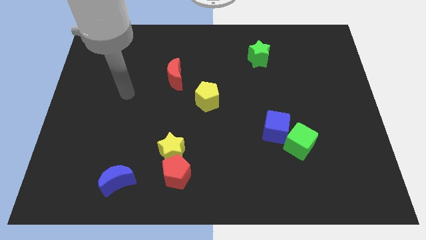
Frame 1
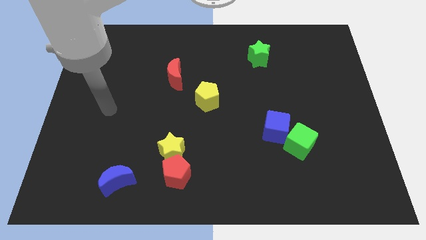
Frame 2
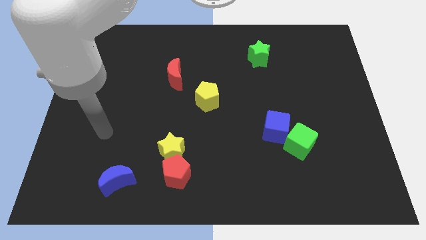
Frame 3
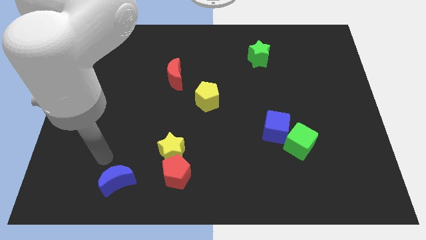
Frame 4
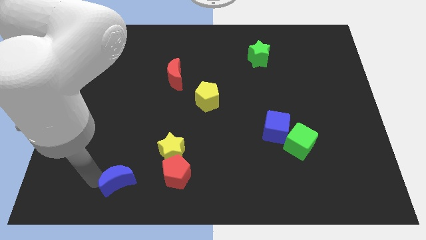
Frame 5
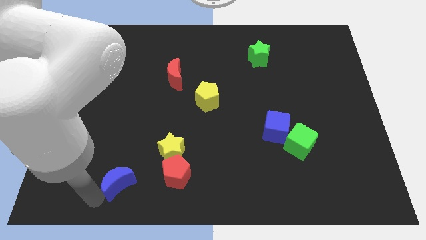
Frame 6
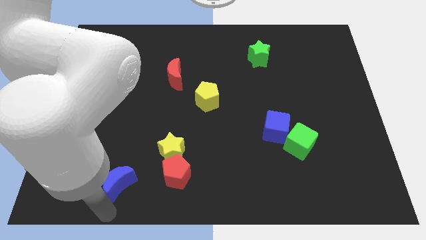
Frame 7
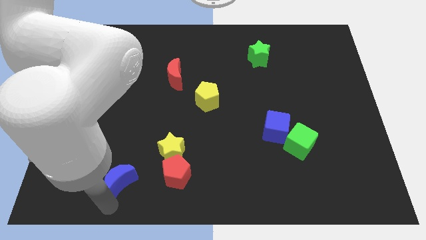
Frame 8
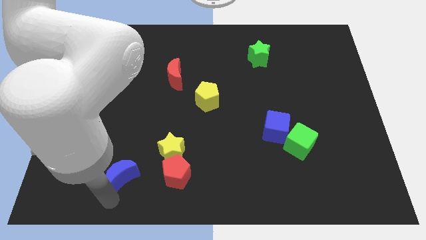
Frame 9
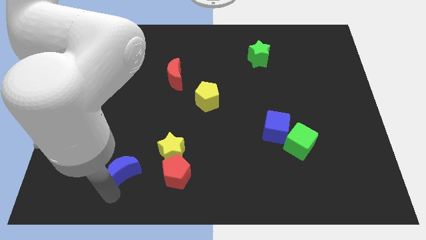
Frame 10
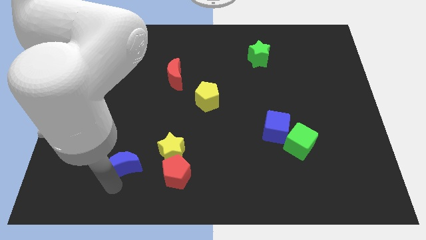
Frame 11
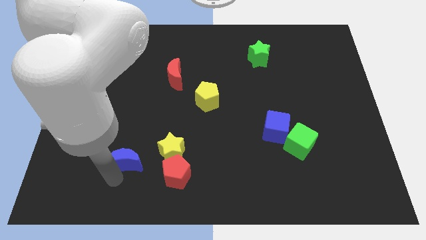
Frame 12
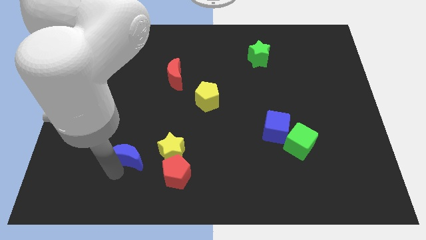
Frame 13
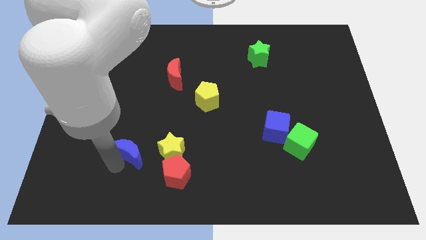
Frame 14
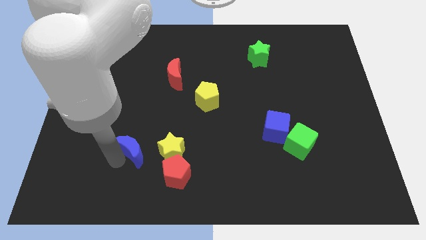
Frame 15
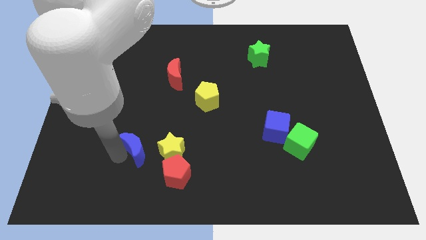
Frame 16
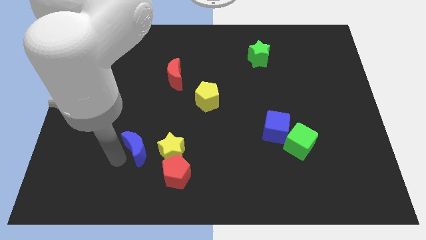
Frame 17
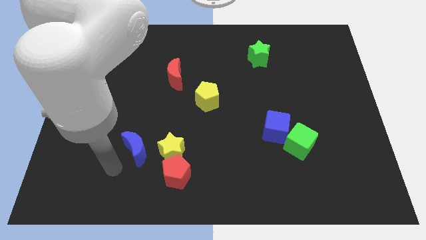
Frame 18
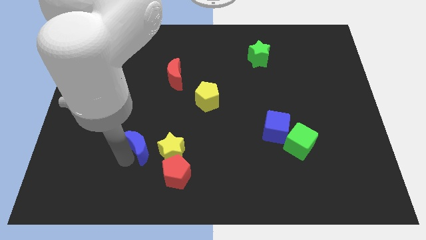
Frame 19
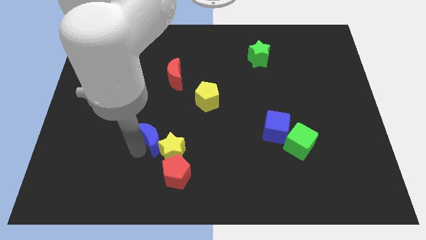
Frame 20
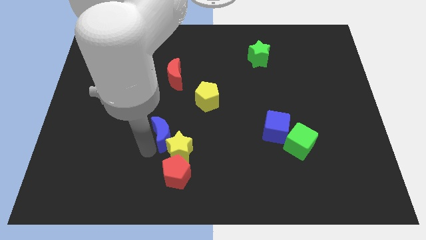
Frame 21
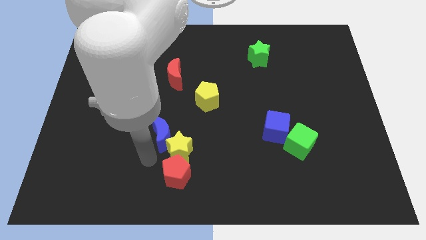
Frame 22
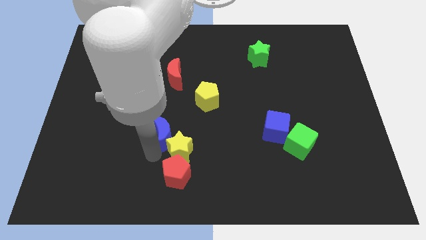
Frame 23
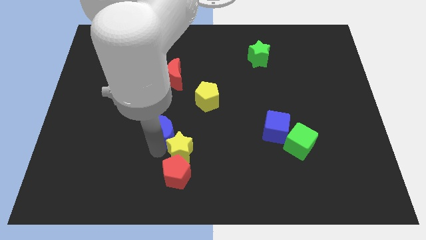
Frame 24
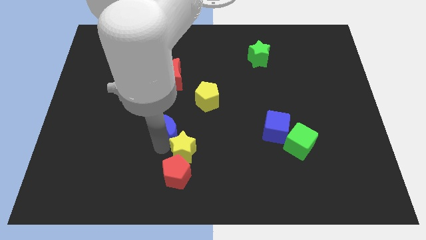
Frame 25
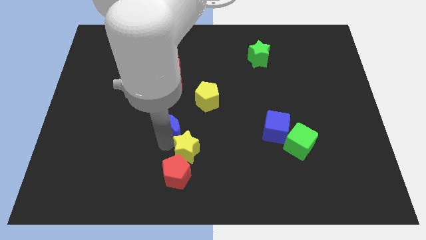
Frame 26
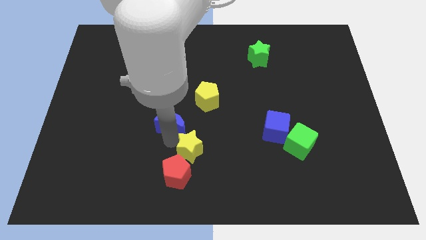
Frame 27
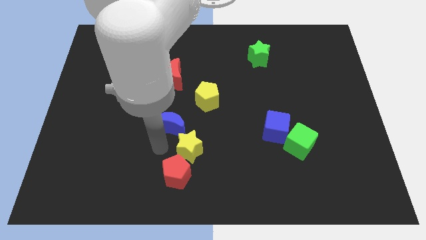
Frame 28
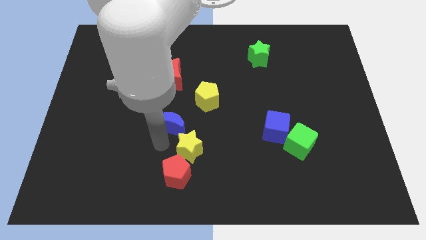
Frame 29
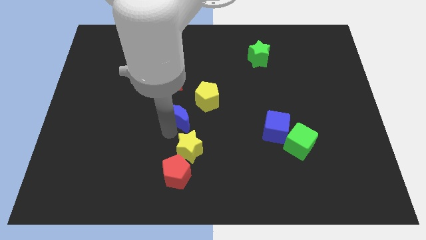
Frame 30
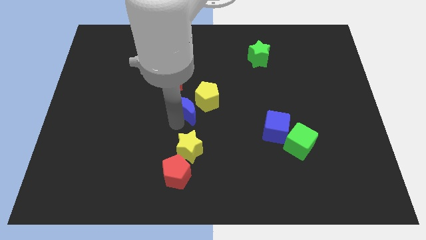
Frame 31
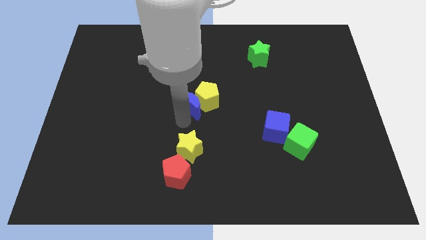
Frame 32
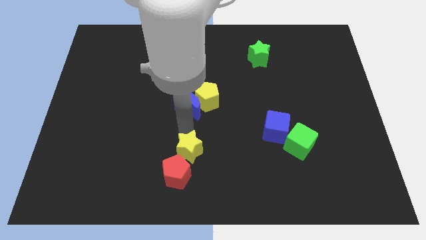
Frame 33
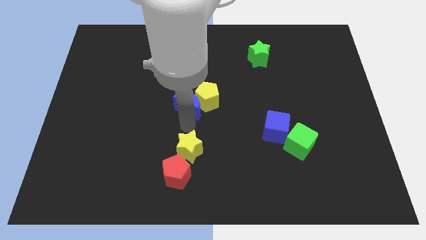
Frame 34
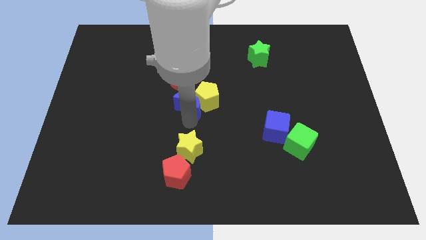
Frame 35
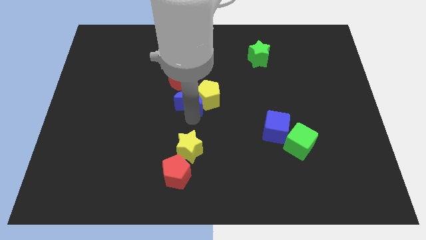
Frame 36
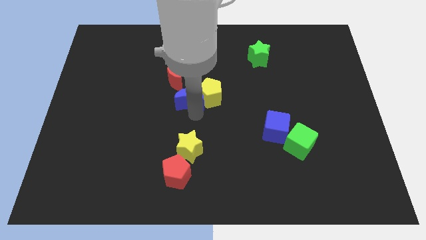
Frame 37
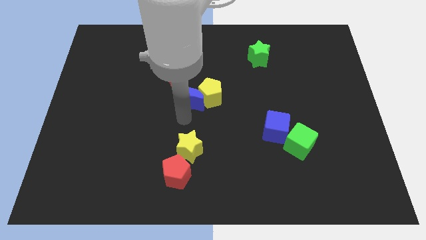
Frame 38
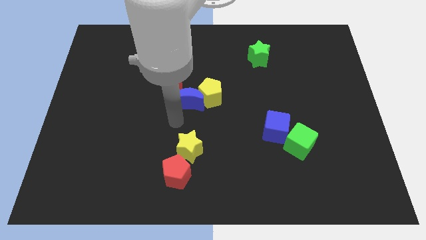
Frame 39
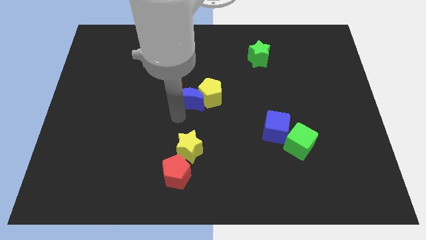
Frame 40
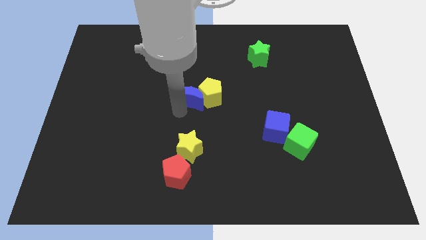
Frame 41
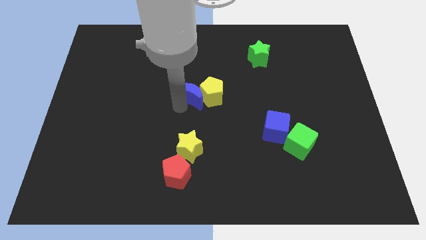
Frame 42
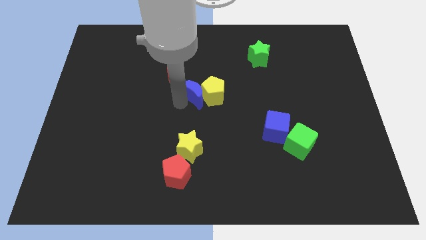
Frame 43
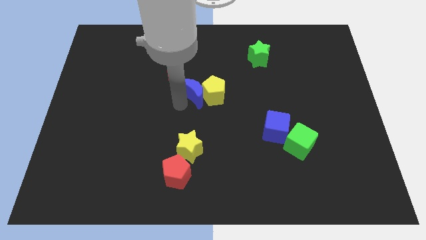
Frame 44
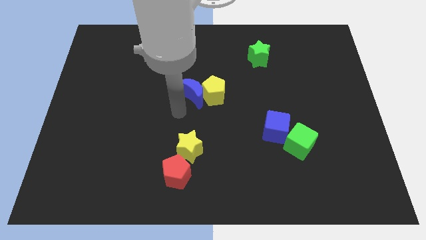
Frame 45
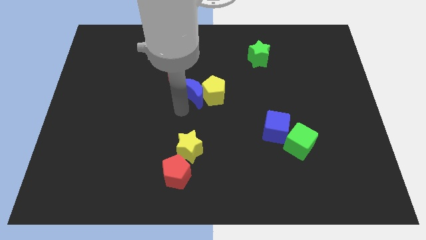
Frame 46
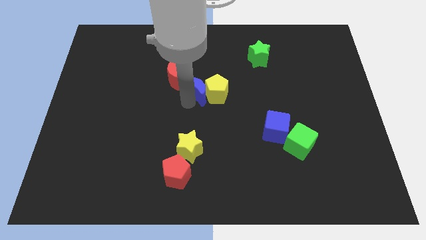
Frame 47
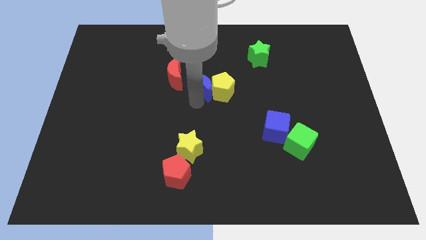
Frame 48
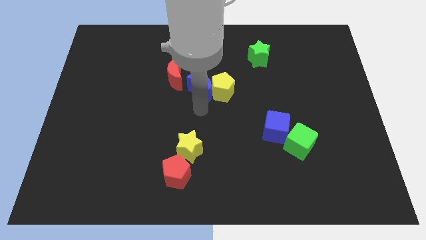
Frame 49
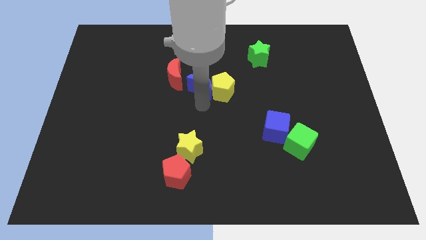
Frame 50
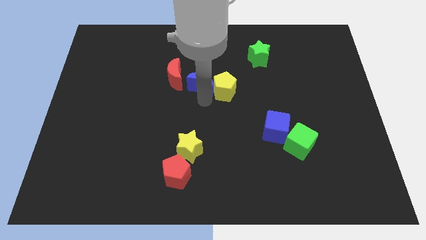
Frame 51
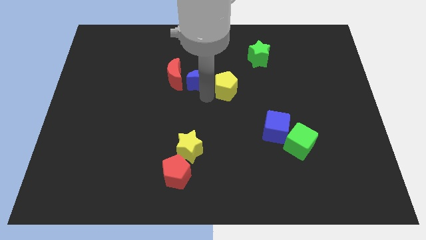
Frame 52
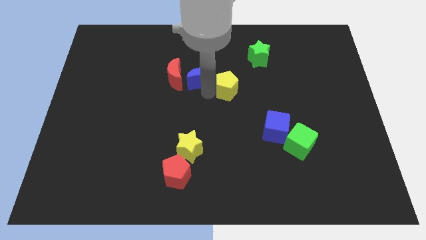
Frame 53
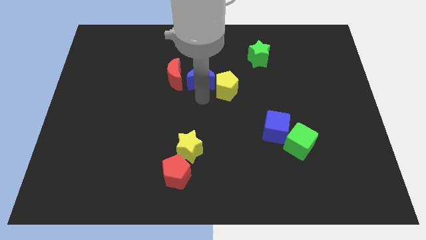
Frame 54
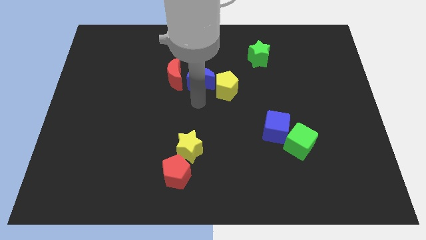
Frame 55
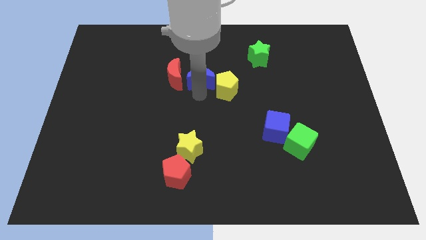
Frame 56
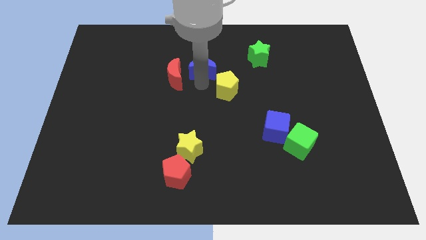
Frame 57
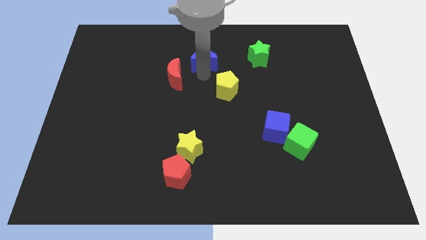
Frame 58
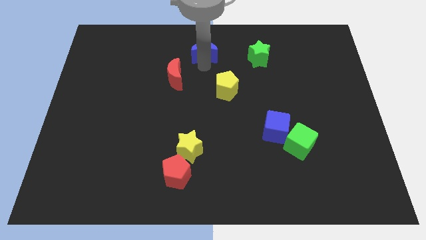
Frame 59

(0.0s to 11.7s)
slide the blue moon to the top side

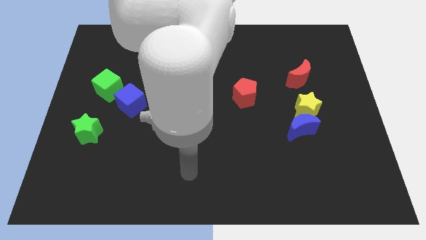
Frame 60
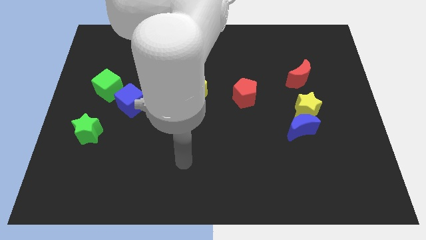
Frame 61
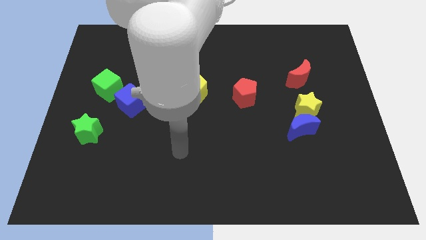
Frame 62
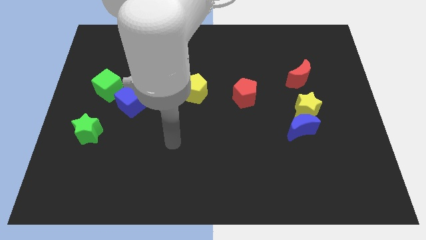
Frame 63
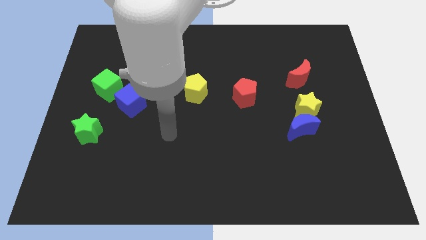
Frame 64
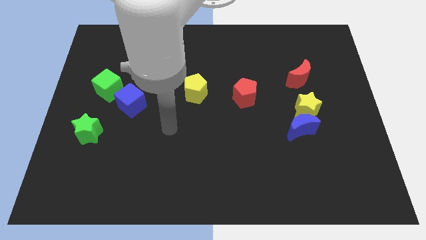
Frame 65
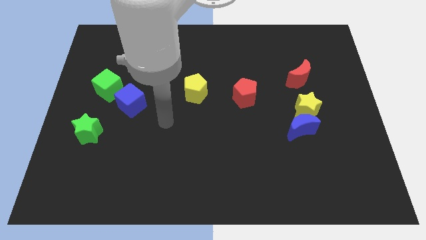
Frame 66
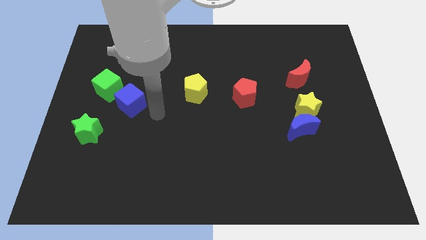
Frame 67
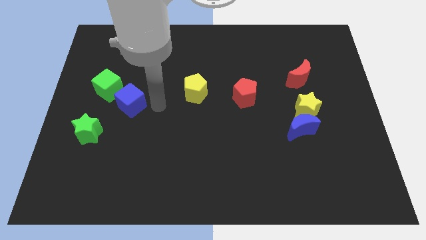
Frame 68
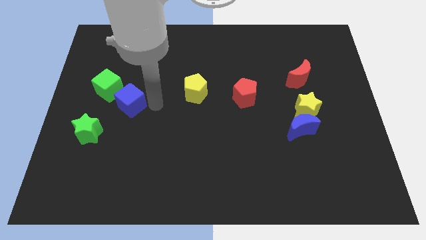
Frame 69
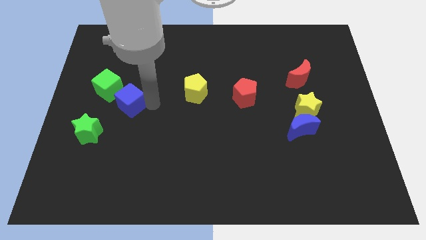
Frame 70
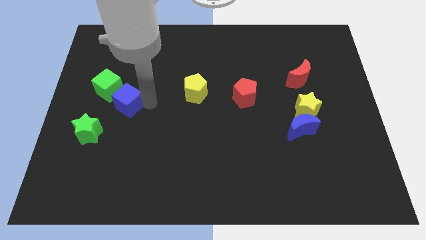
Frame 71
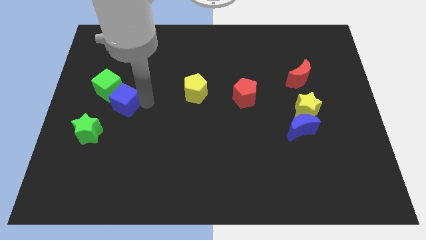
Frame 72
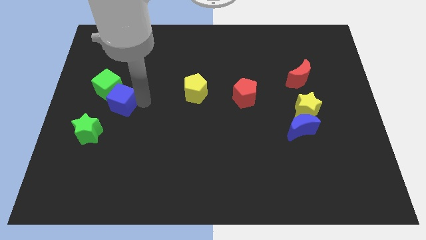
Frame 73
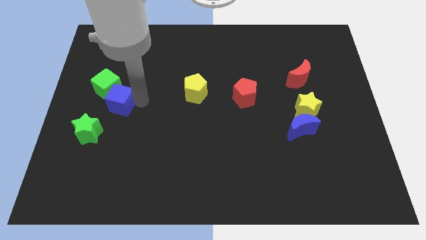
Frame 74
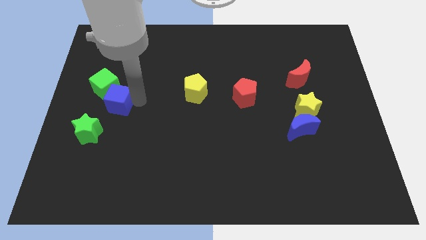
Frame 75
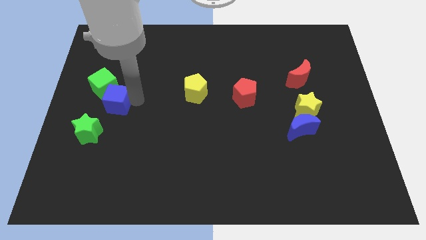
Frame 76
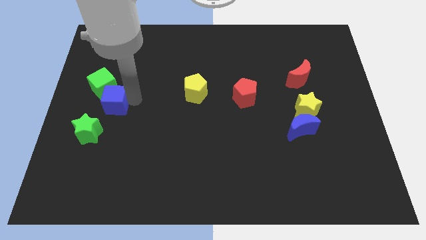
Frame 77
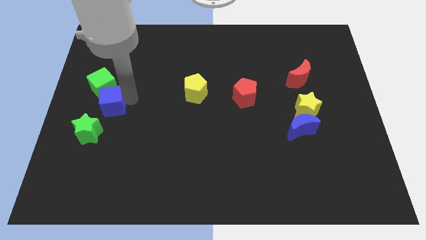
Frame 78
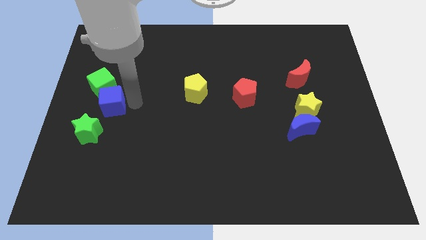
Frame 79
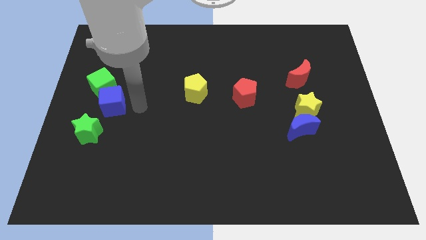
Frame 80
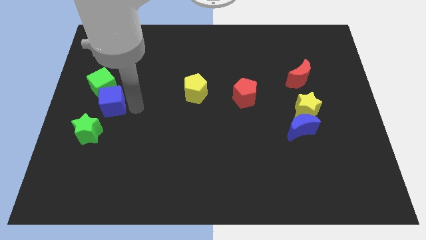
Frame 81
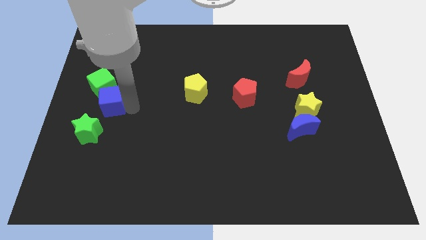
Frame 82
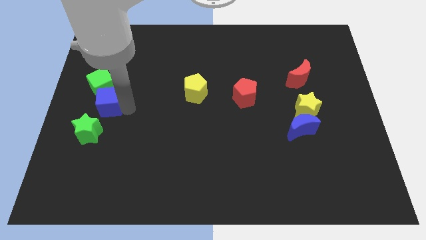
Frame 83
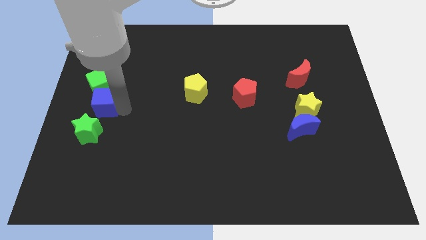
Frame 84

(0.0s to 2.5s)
put the blue cube to the left side of the board
